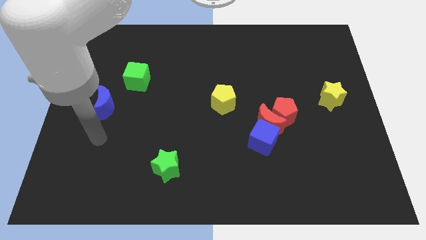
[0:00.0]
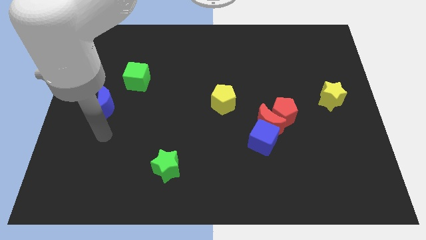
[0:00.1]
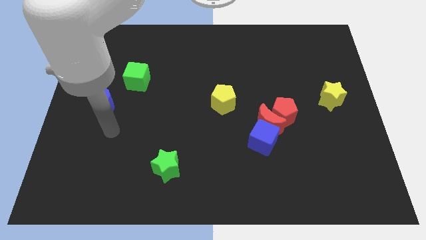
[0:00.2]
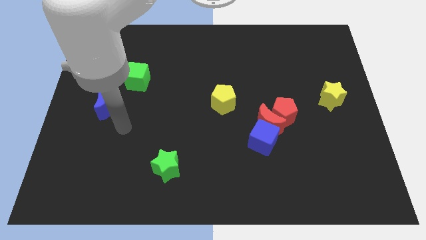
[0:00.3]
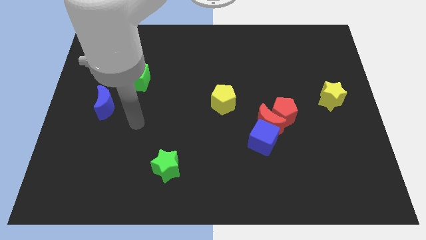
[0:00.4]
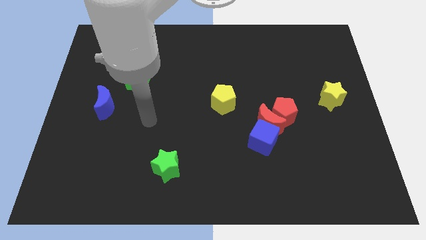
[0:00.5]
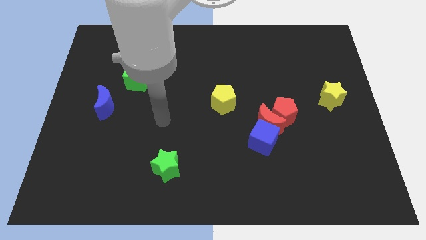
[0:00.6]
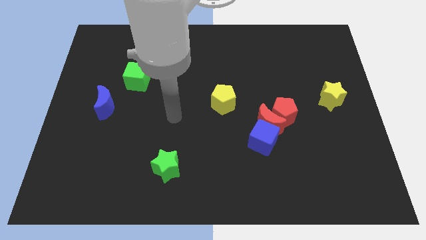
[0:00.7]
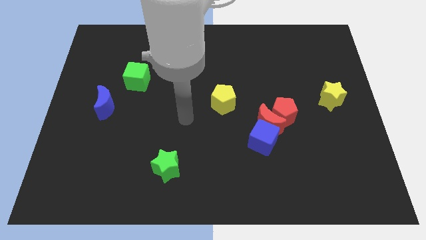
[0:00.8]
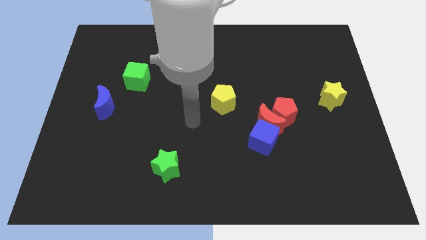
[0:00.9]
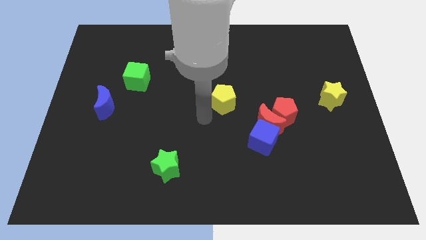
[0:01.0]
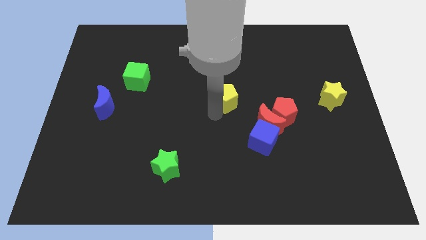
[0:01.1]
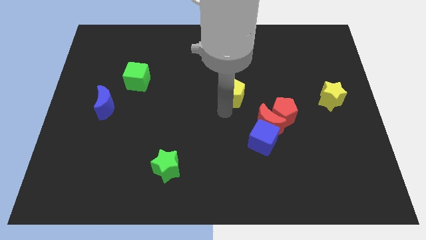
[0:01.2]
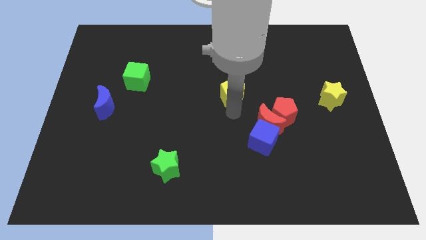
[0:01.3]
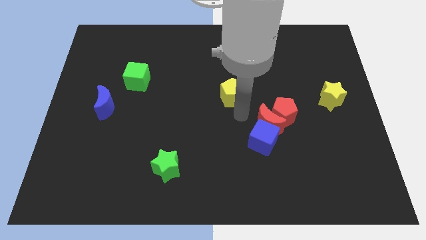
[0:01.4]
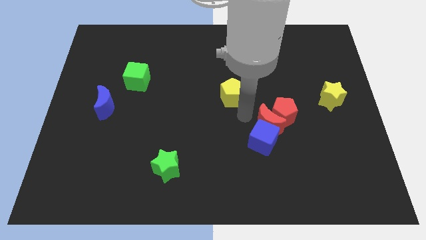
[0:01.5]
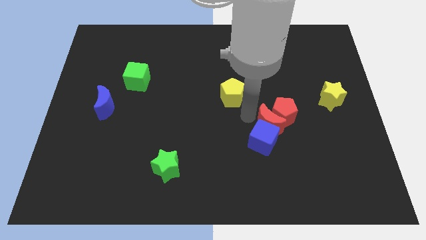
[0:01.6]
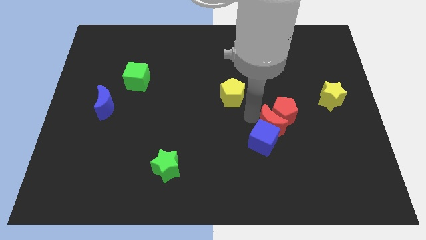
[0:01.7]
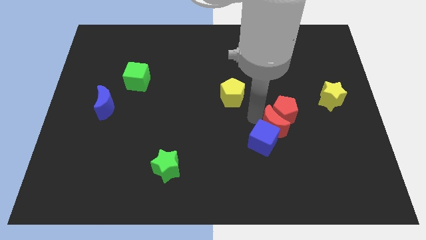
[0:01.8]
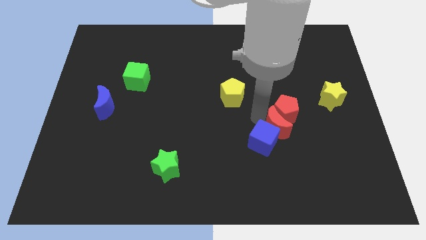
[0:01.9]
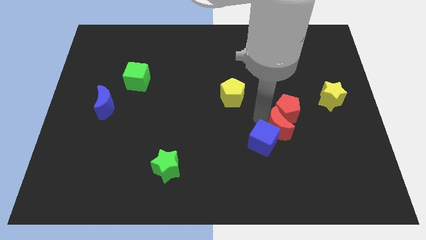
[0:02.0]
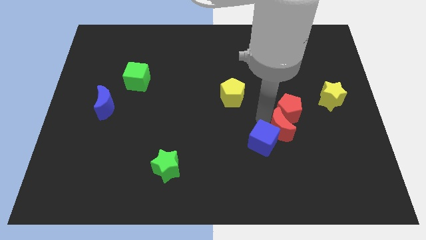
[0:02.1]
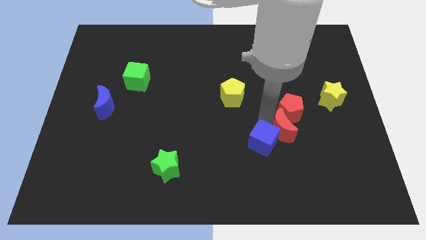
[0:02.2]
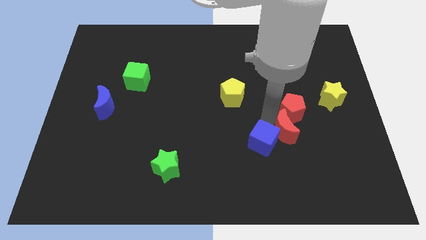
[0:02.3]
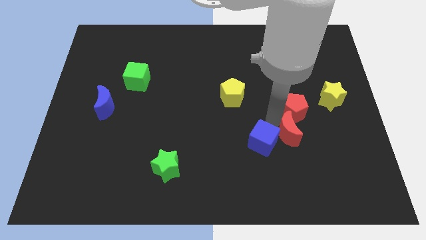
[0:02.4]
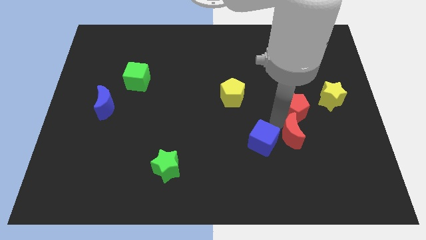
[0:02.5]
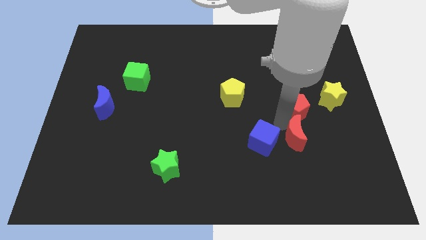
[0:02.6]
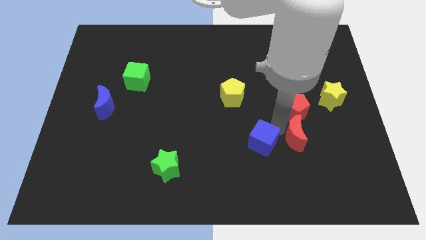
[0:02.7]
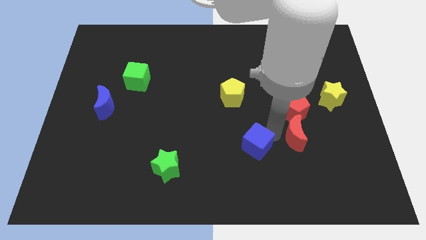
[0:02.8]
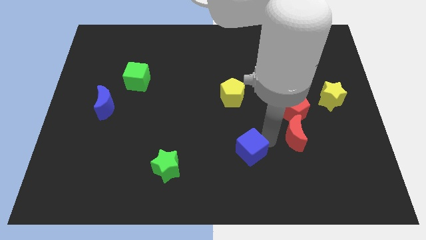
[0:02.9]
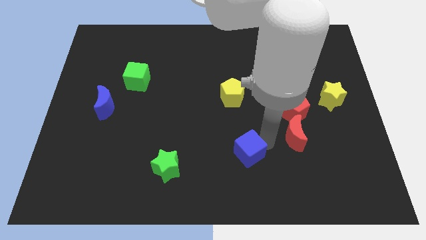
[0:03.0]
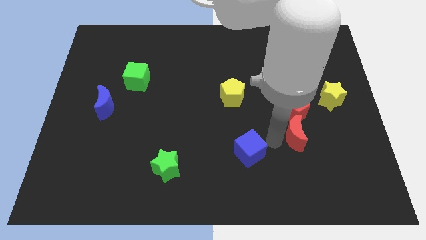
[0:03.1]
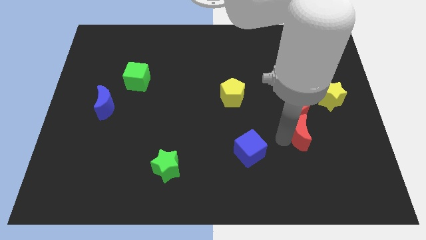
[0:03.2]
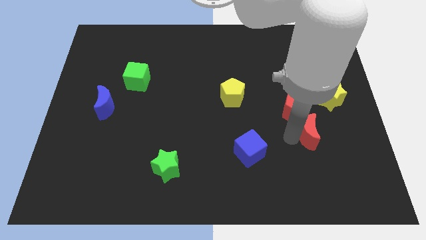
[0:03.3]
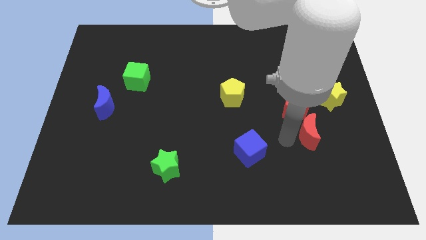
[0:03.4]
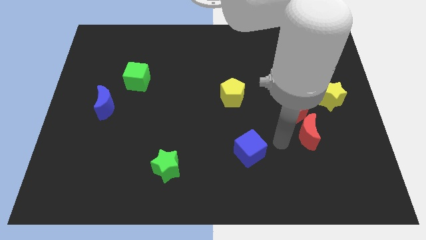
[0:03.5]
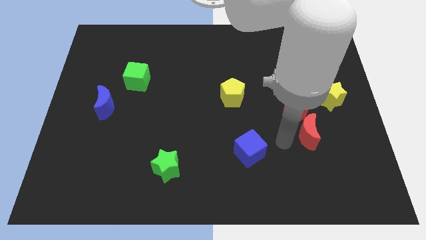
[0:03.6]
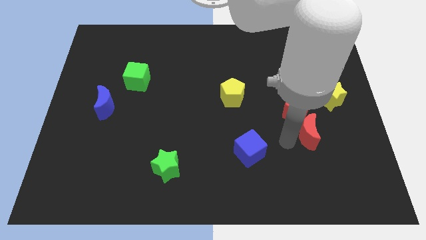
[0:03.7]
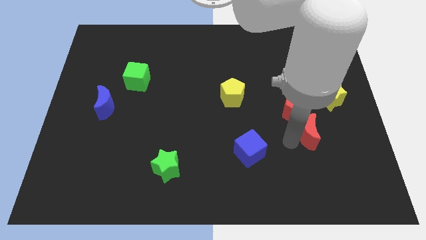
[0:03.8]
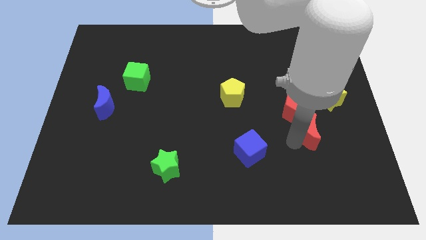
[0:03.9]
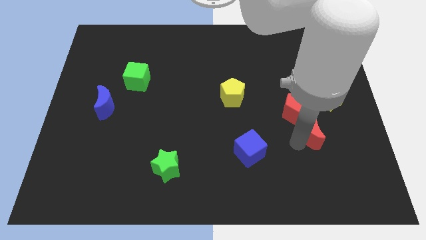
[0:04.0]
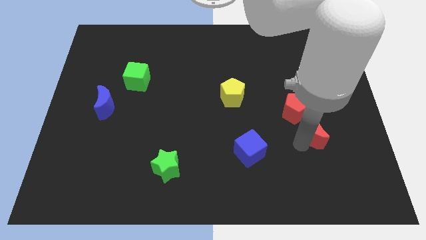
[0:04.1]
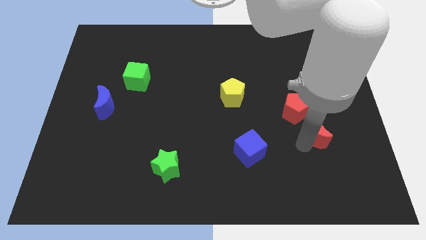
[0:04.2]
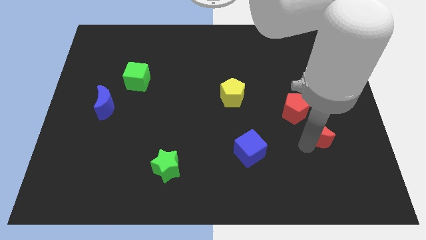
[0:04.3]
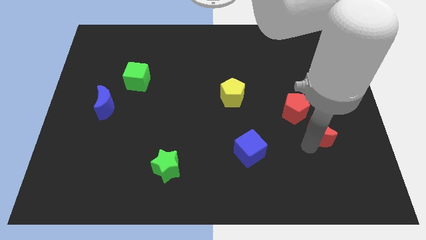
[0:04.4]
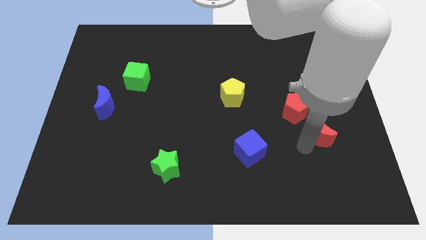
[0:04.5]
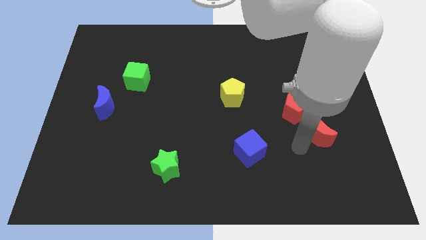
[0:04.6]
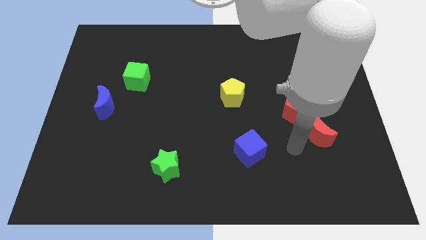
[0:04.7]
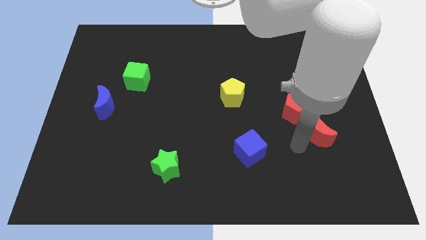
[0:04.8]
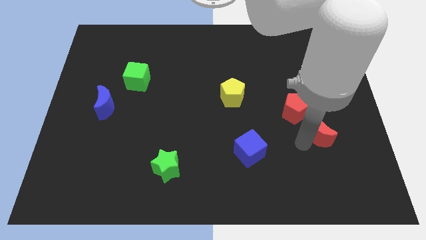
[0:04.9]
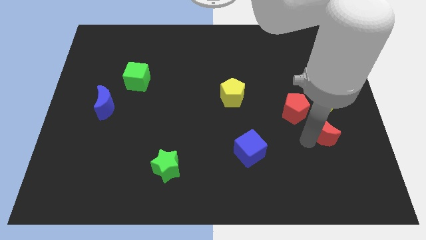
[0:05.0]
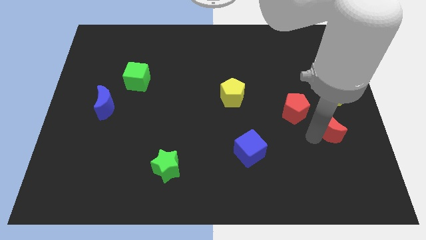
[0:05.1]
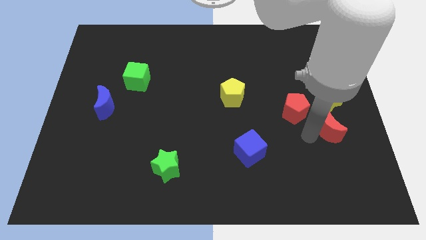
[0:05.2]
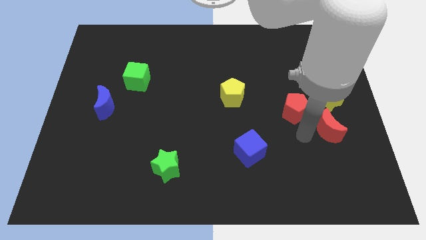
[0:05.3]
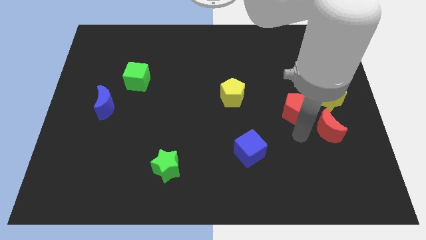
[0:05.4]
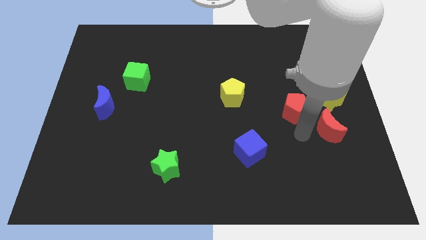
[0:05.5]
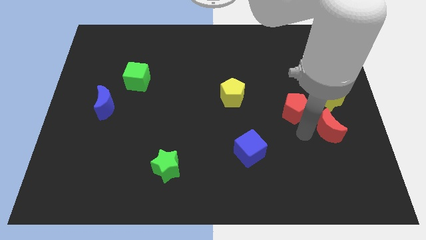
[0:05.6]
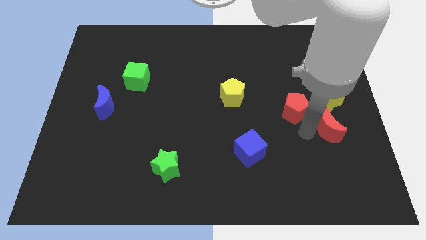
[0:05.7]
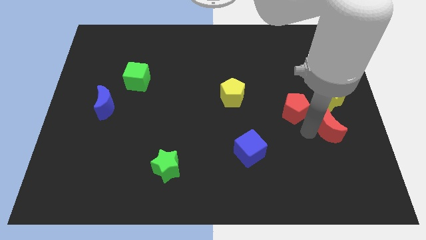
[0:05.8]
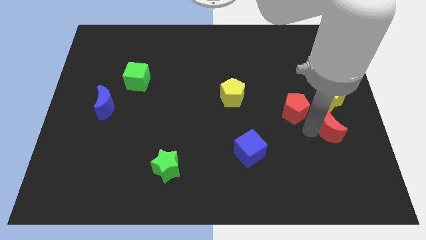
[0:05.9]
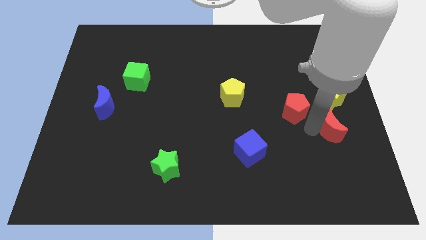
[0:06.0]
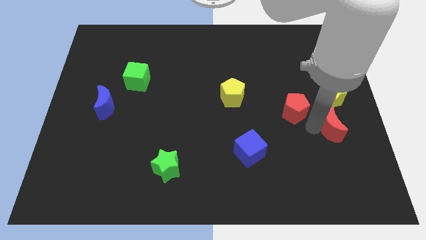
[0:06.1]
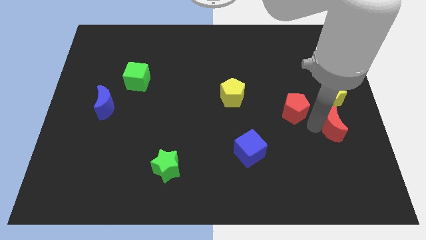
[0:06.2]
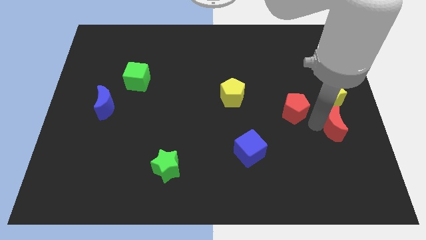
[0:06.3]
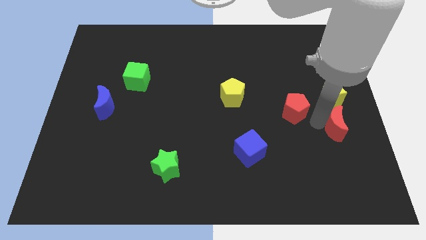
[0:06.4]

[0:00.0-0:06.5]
slide the red moon to the right side
